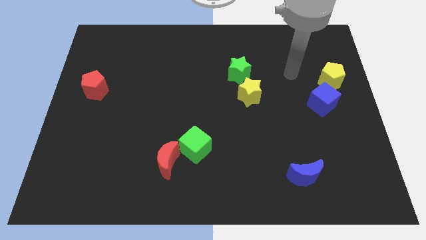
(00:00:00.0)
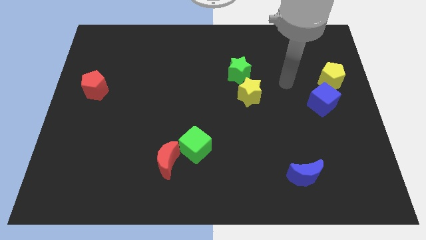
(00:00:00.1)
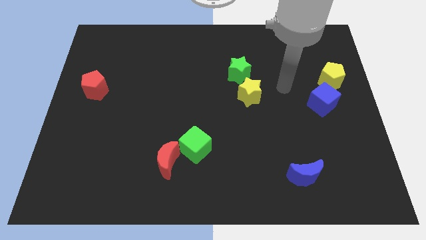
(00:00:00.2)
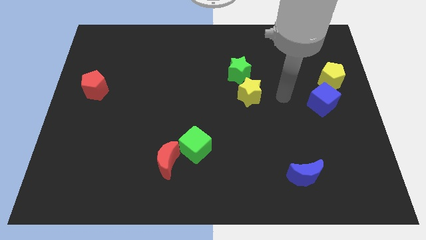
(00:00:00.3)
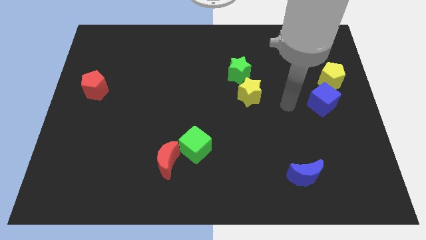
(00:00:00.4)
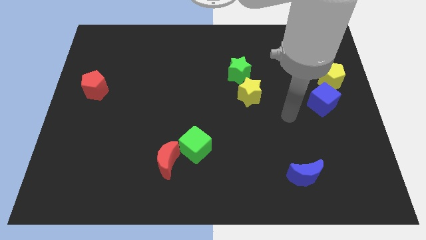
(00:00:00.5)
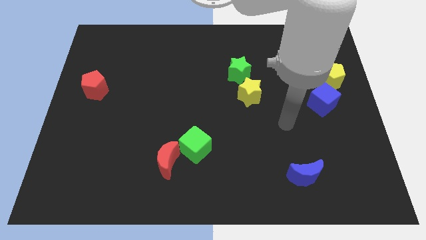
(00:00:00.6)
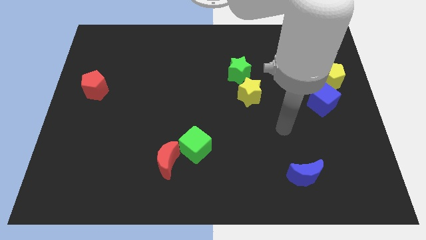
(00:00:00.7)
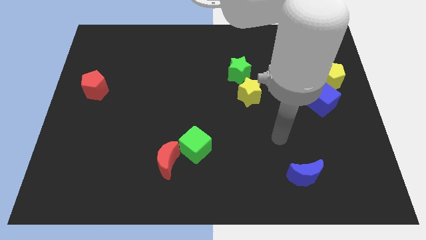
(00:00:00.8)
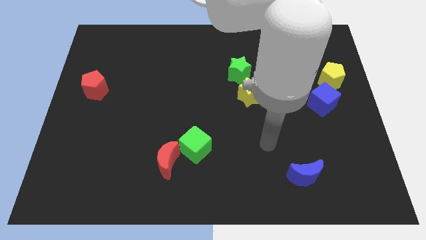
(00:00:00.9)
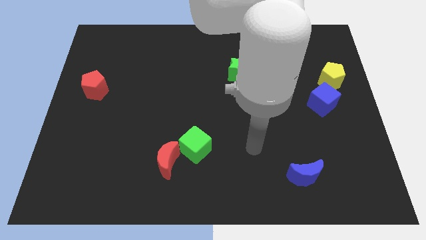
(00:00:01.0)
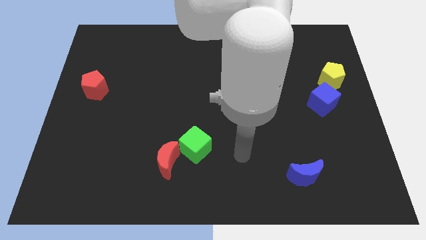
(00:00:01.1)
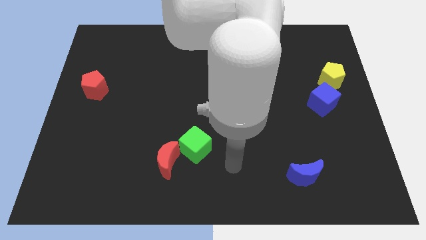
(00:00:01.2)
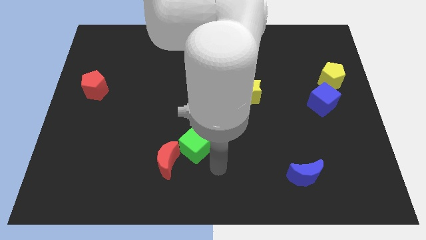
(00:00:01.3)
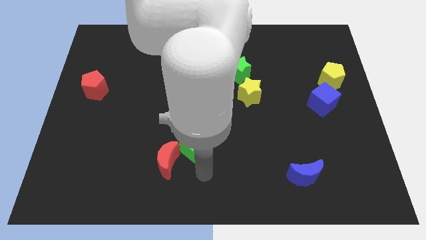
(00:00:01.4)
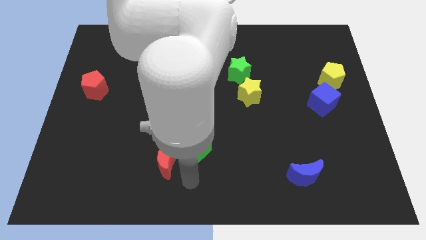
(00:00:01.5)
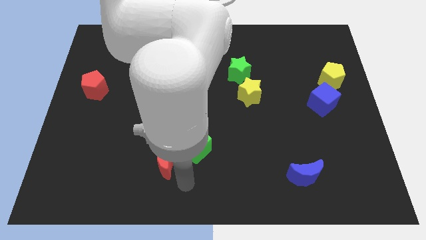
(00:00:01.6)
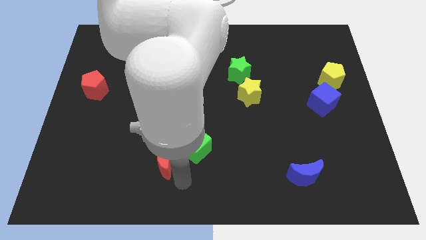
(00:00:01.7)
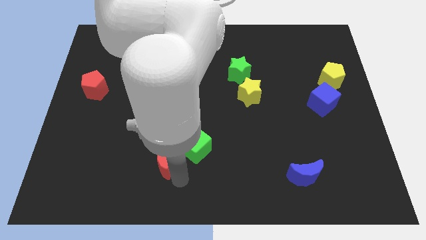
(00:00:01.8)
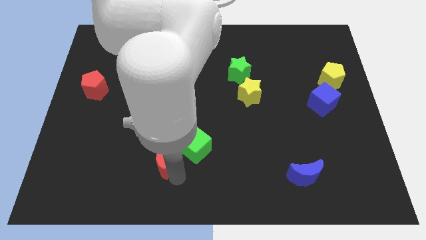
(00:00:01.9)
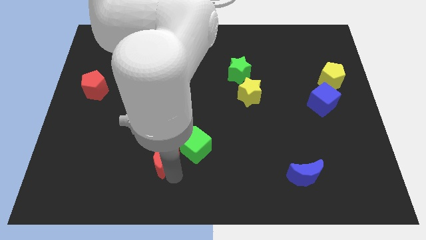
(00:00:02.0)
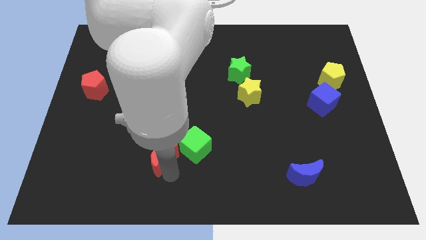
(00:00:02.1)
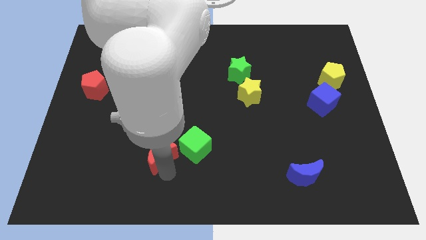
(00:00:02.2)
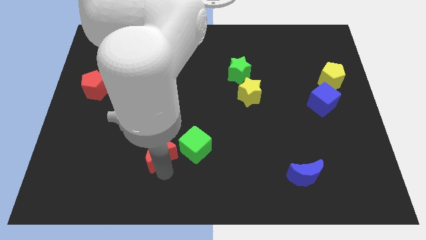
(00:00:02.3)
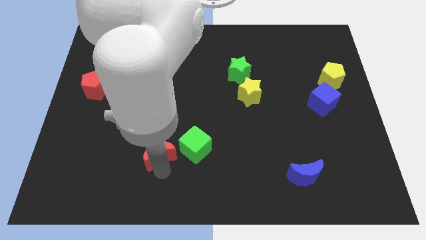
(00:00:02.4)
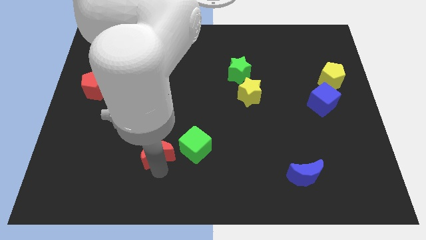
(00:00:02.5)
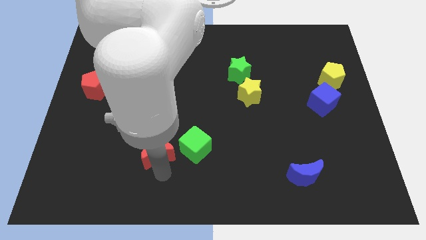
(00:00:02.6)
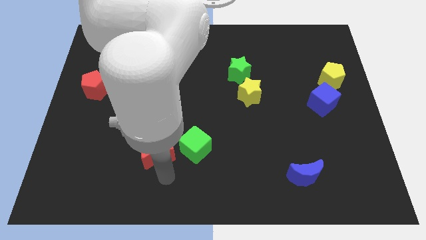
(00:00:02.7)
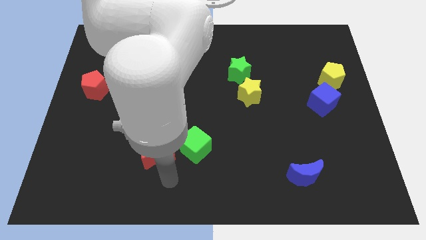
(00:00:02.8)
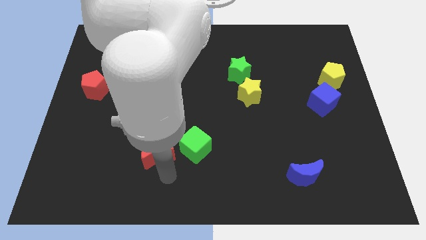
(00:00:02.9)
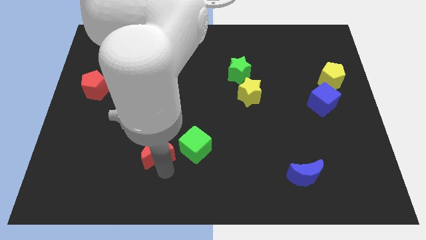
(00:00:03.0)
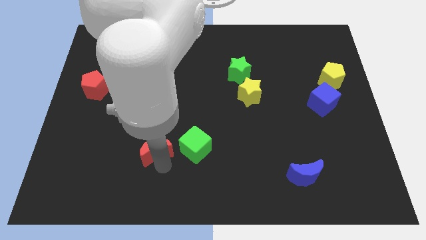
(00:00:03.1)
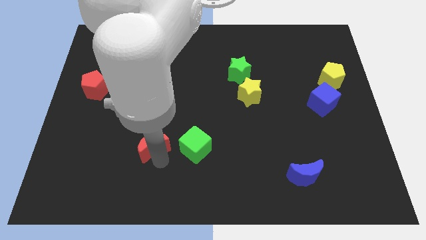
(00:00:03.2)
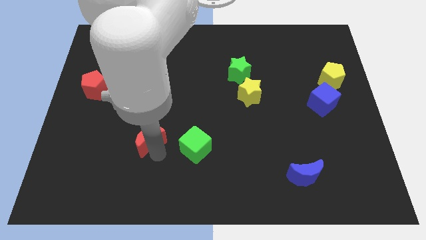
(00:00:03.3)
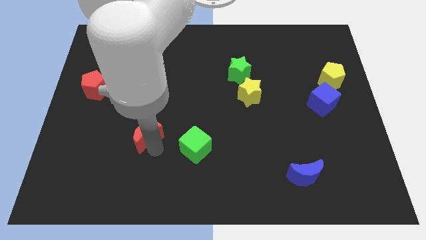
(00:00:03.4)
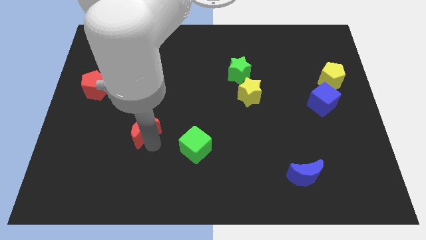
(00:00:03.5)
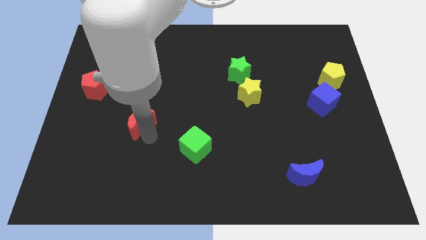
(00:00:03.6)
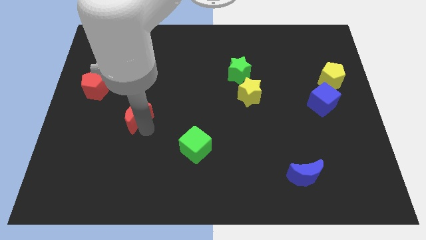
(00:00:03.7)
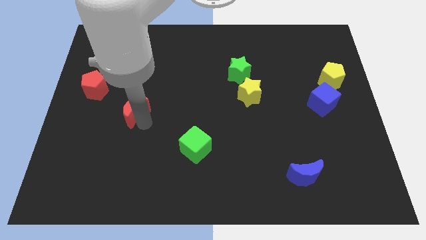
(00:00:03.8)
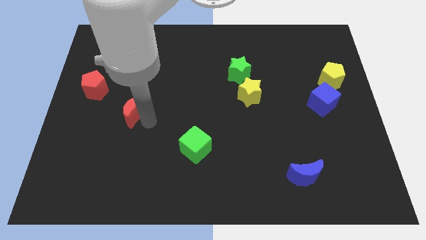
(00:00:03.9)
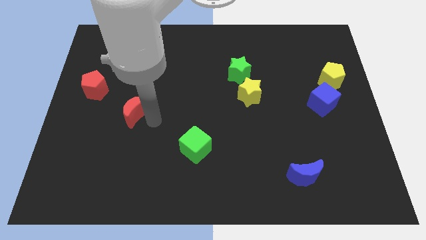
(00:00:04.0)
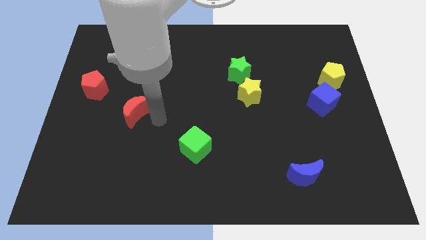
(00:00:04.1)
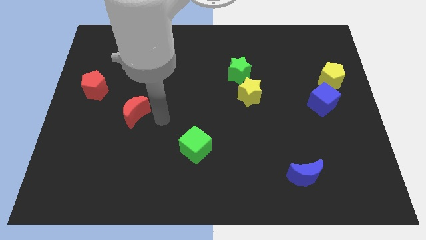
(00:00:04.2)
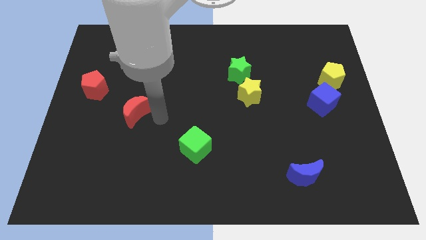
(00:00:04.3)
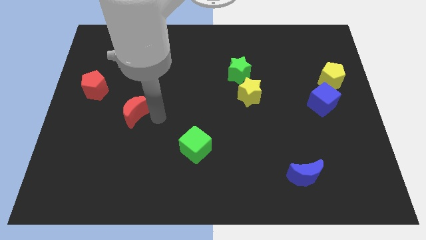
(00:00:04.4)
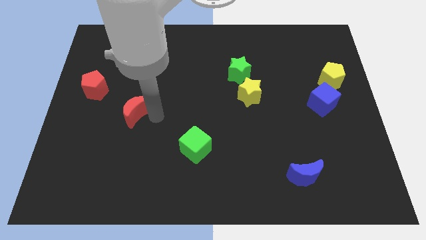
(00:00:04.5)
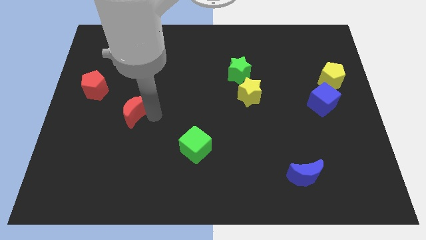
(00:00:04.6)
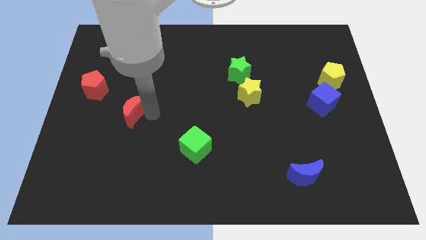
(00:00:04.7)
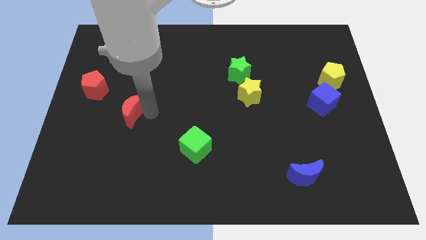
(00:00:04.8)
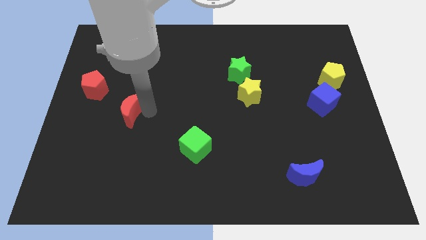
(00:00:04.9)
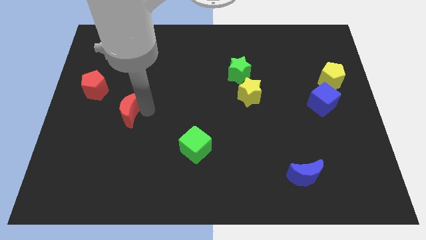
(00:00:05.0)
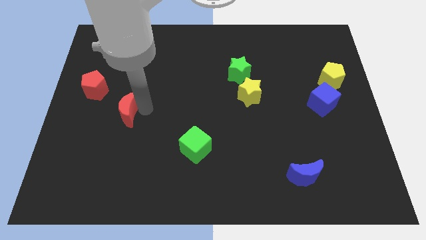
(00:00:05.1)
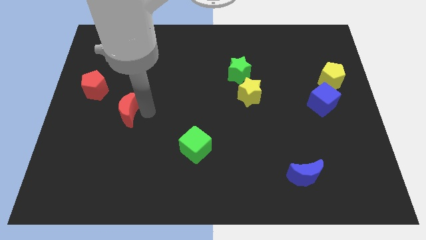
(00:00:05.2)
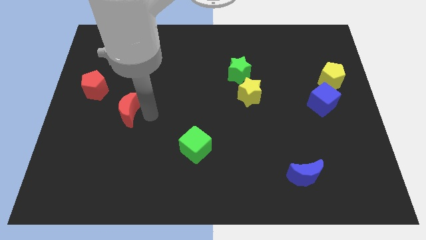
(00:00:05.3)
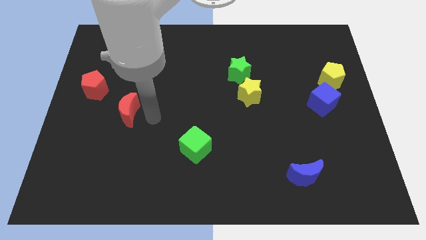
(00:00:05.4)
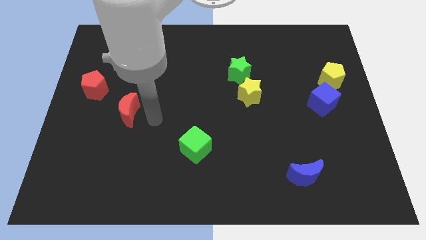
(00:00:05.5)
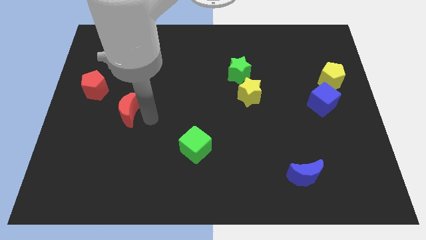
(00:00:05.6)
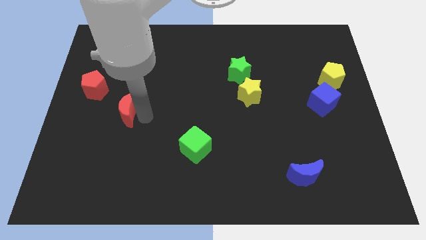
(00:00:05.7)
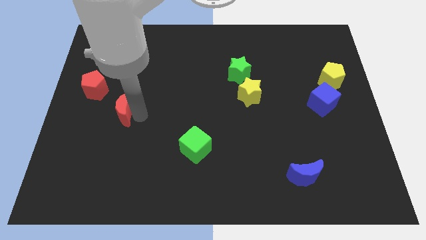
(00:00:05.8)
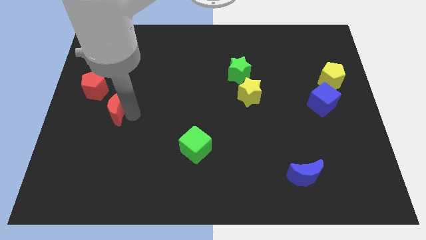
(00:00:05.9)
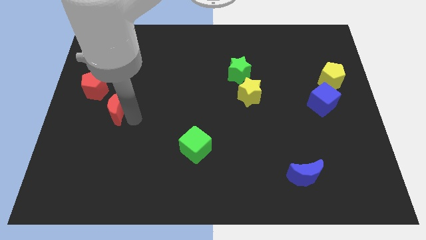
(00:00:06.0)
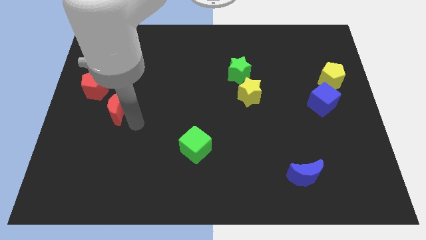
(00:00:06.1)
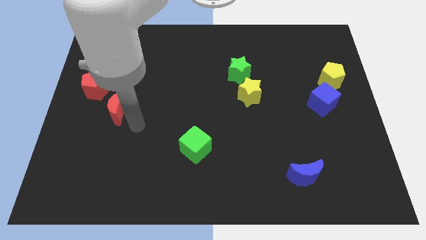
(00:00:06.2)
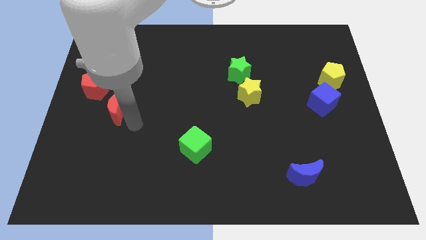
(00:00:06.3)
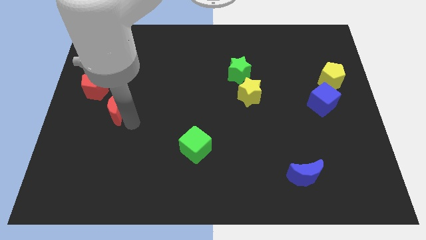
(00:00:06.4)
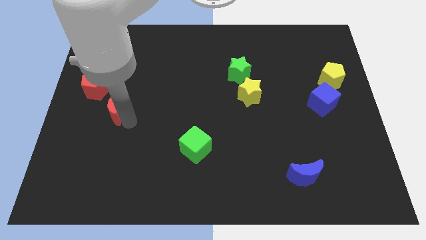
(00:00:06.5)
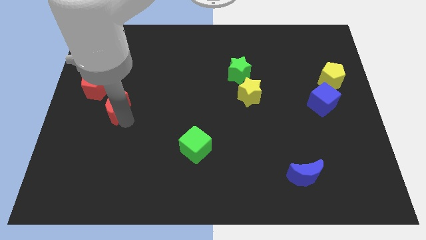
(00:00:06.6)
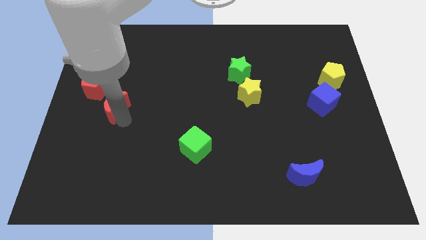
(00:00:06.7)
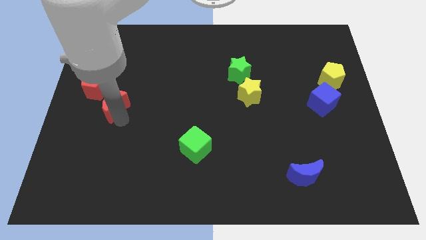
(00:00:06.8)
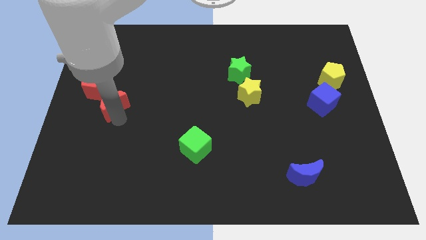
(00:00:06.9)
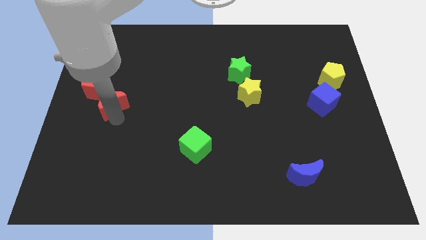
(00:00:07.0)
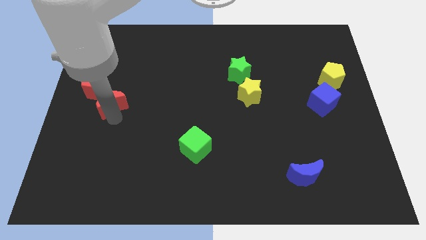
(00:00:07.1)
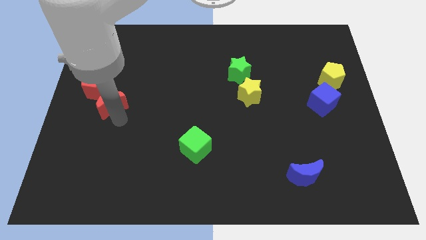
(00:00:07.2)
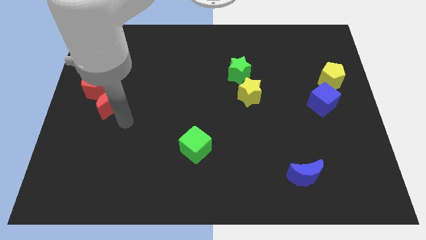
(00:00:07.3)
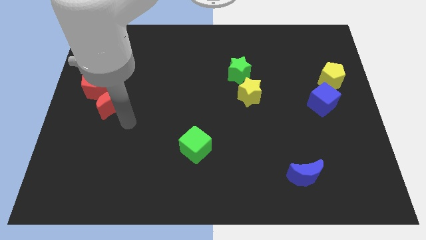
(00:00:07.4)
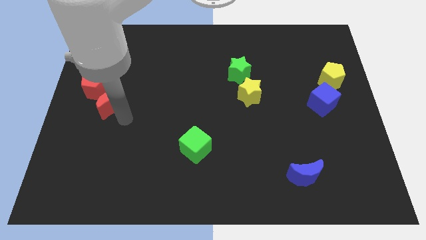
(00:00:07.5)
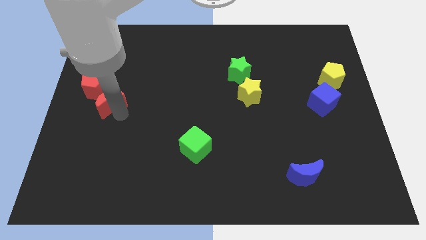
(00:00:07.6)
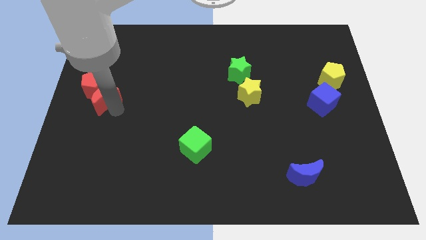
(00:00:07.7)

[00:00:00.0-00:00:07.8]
slide the red moon next to the red pentagon

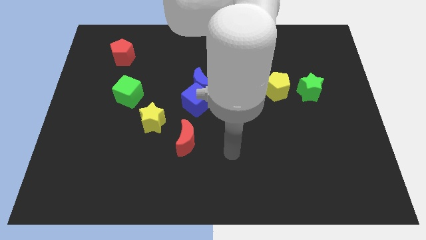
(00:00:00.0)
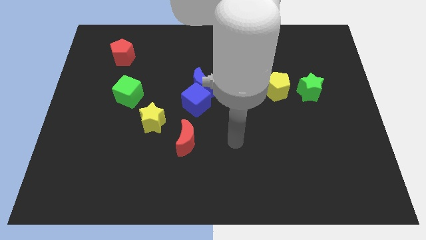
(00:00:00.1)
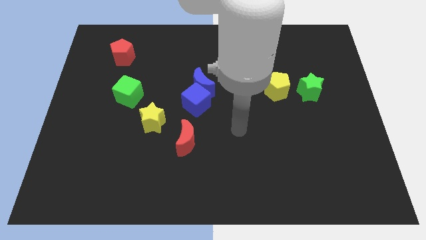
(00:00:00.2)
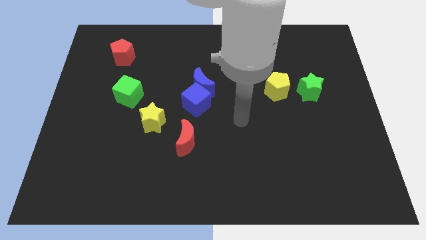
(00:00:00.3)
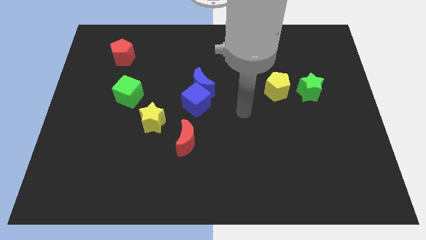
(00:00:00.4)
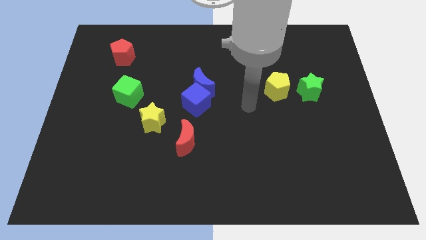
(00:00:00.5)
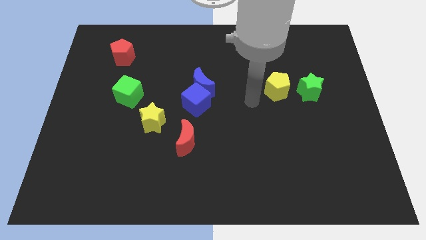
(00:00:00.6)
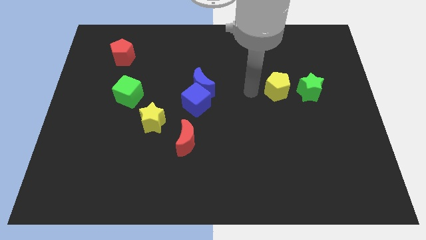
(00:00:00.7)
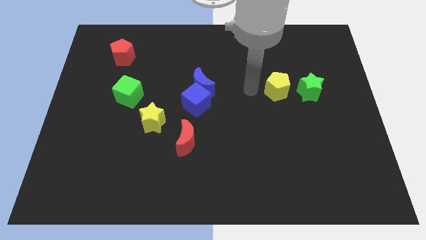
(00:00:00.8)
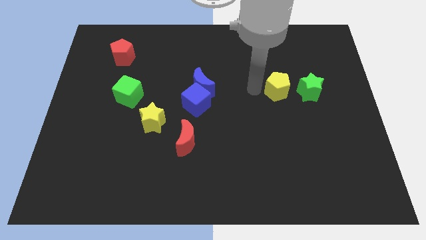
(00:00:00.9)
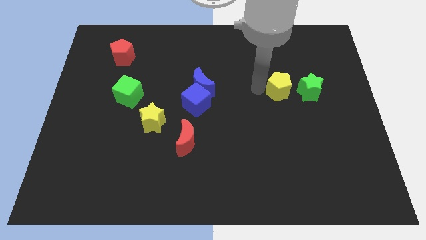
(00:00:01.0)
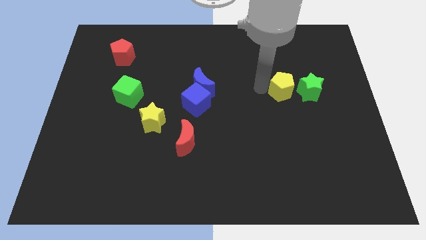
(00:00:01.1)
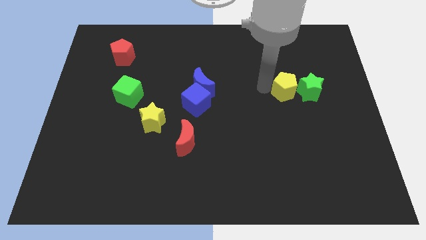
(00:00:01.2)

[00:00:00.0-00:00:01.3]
put the yellow pentagon towards the green star
